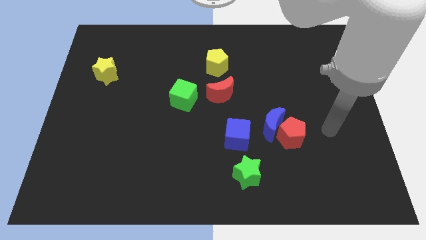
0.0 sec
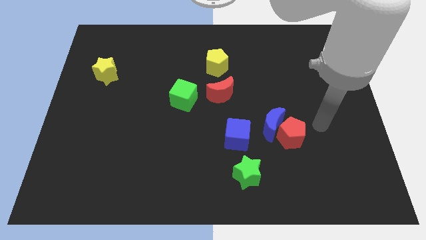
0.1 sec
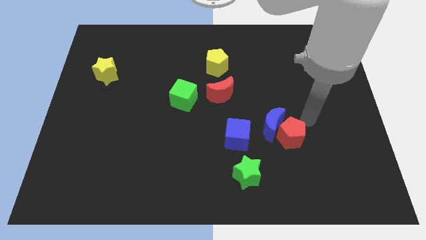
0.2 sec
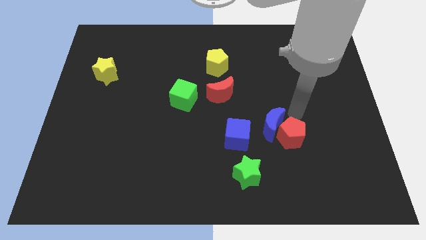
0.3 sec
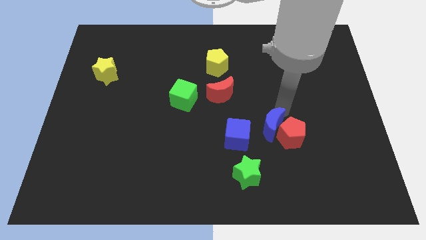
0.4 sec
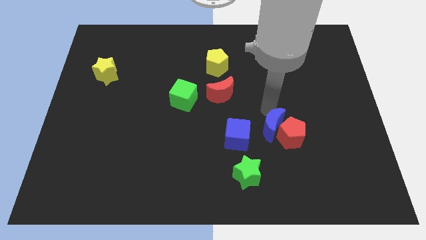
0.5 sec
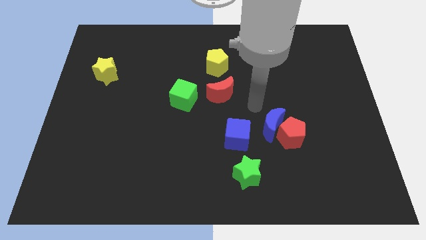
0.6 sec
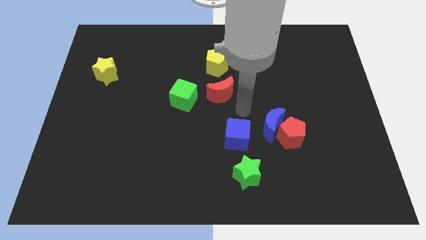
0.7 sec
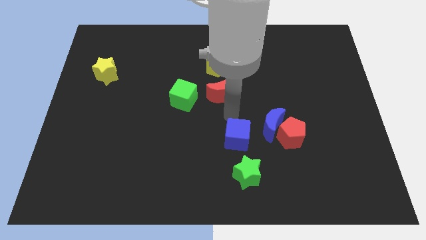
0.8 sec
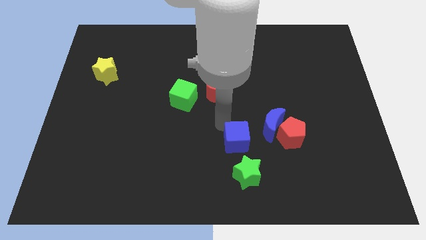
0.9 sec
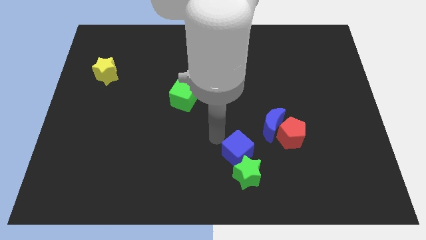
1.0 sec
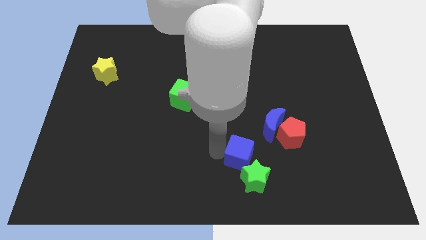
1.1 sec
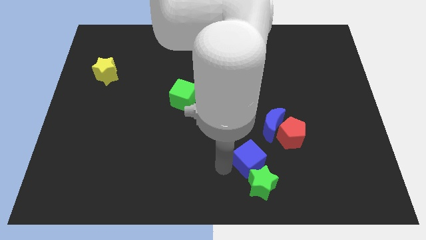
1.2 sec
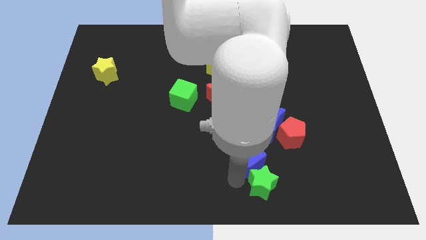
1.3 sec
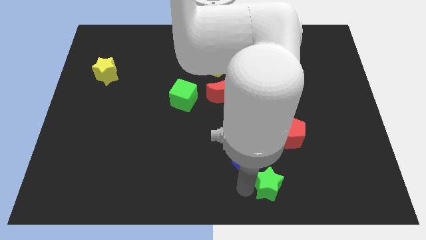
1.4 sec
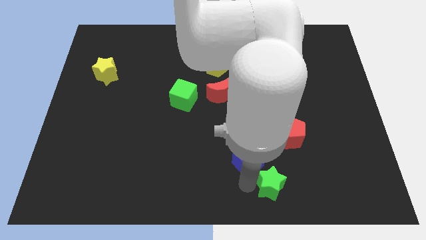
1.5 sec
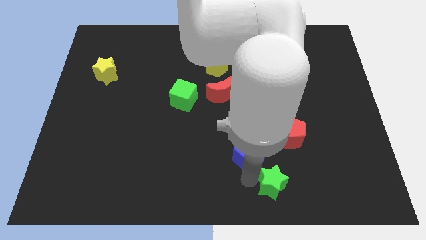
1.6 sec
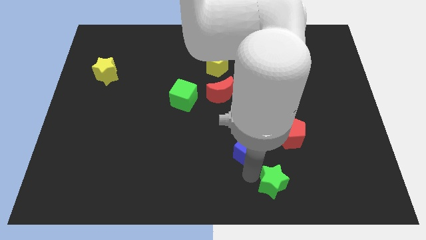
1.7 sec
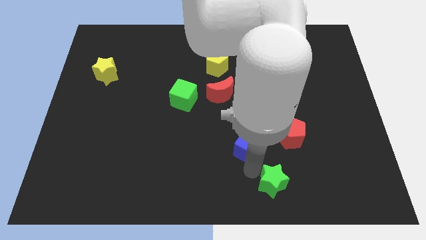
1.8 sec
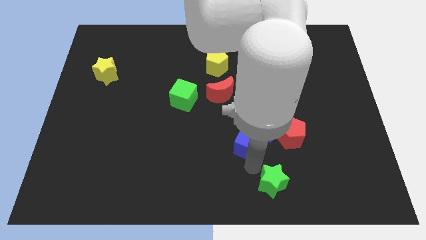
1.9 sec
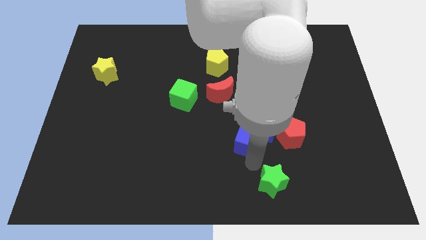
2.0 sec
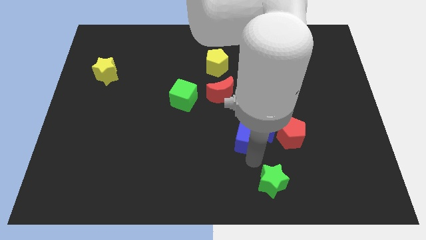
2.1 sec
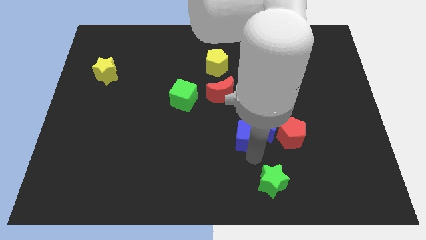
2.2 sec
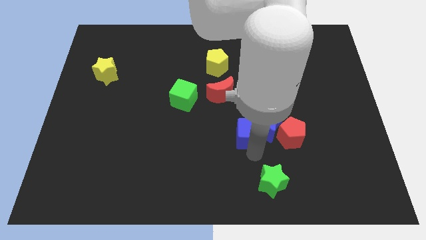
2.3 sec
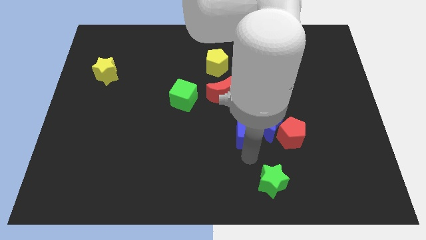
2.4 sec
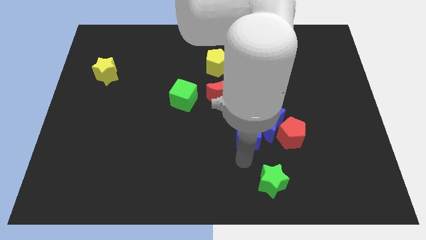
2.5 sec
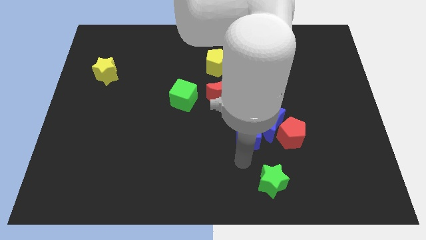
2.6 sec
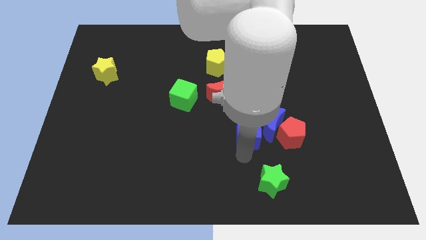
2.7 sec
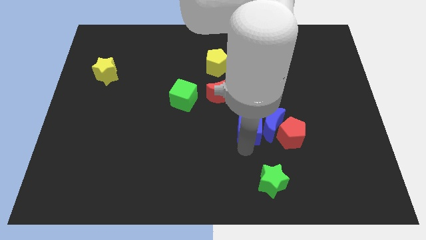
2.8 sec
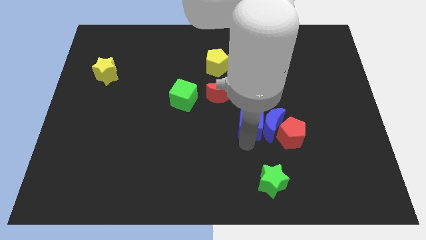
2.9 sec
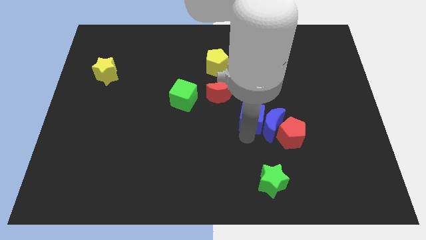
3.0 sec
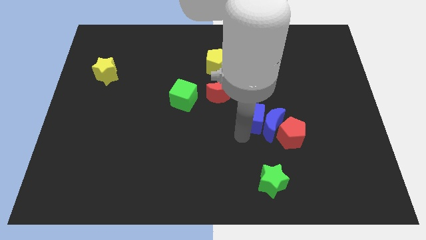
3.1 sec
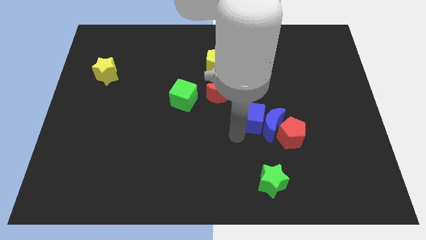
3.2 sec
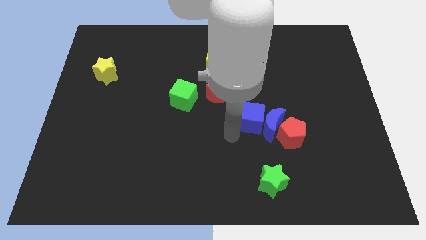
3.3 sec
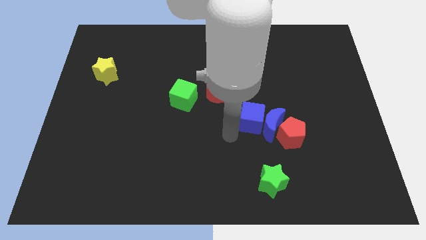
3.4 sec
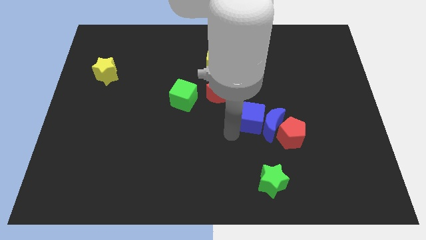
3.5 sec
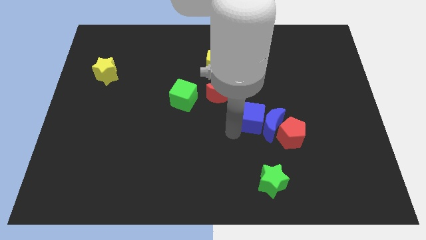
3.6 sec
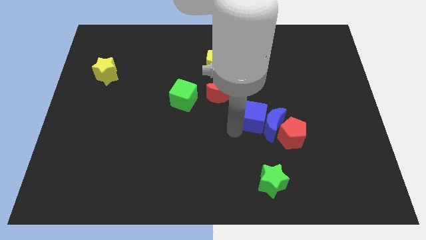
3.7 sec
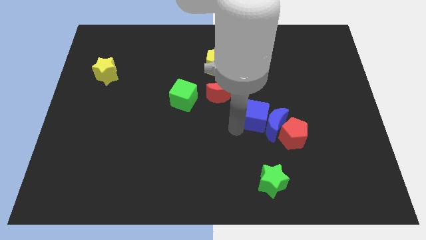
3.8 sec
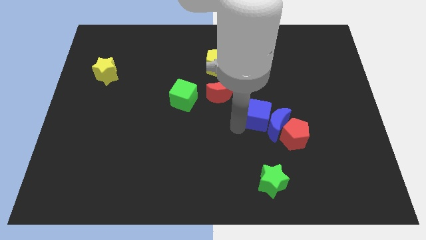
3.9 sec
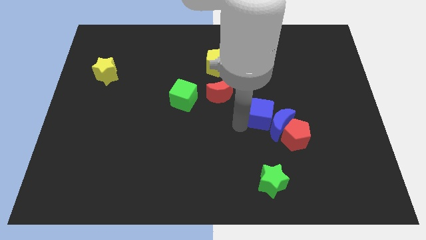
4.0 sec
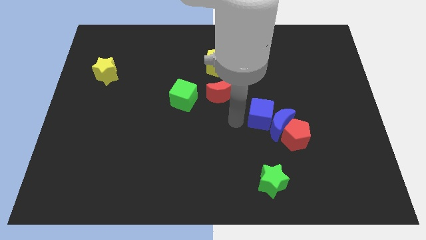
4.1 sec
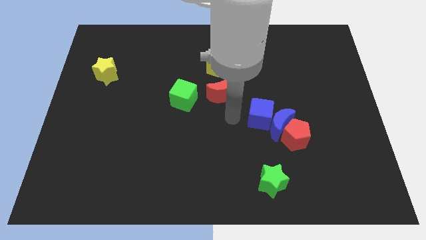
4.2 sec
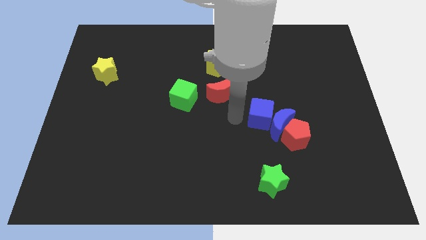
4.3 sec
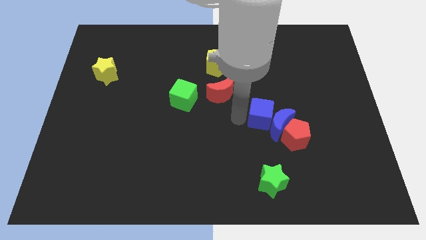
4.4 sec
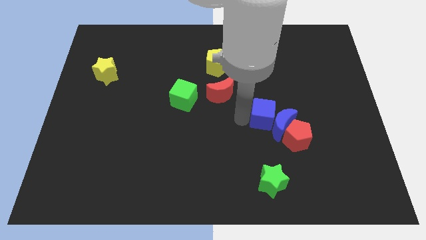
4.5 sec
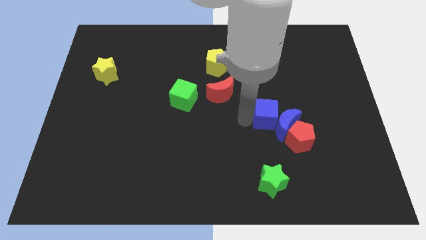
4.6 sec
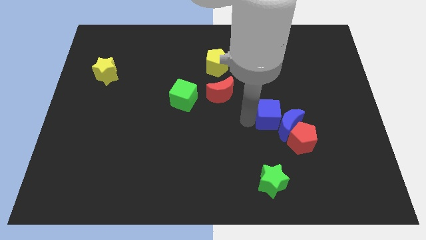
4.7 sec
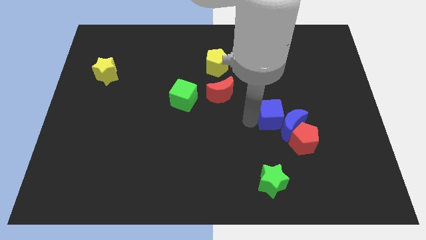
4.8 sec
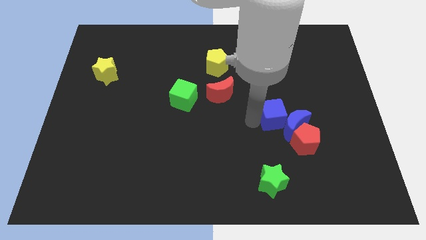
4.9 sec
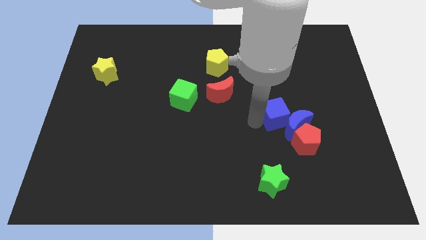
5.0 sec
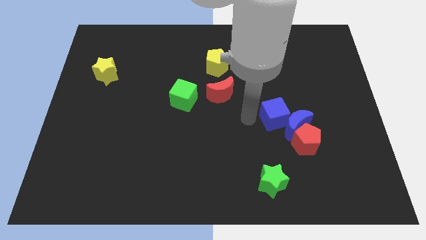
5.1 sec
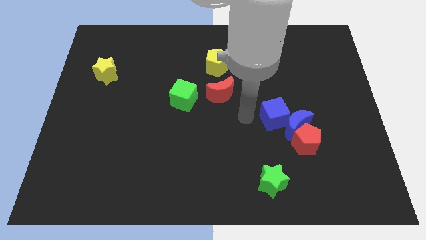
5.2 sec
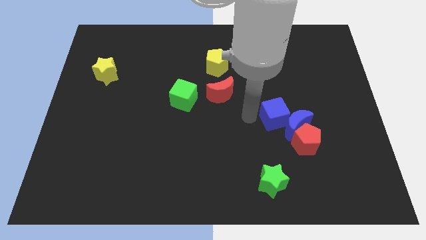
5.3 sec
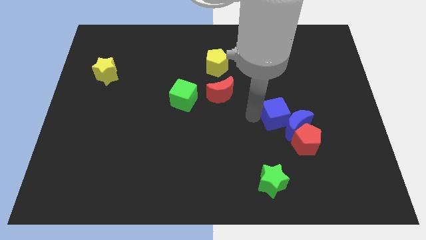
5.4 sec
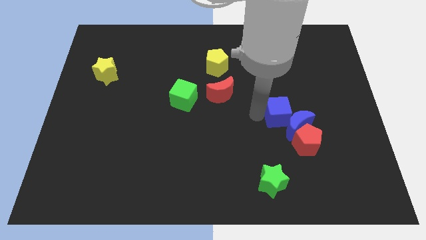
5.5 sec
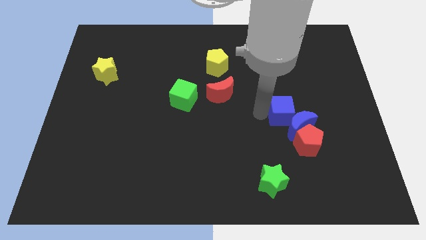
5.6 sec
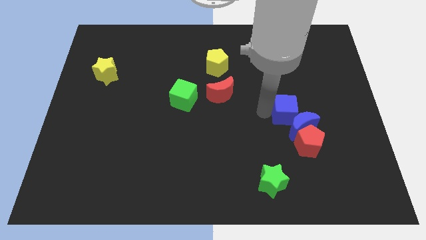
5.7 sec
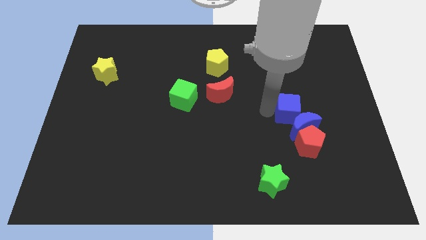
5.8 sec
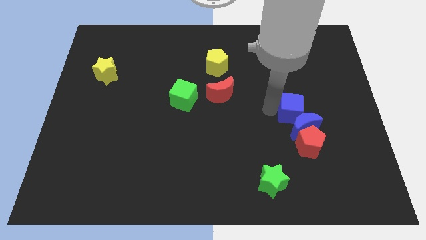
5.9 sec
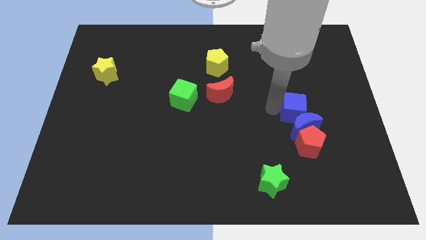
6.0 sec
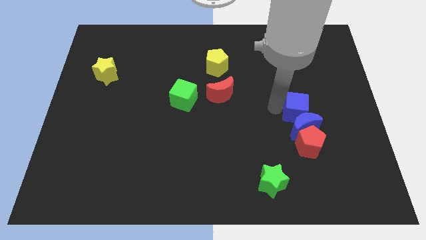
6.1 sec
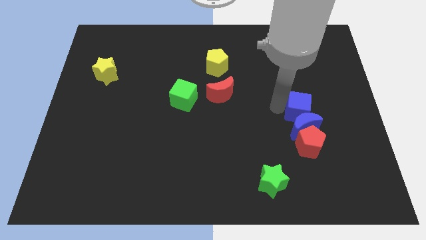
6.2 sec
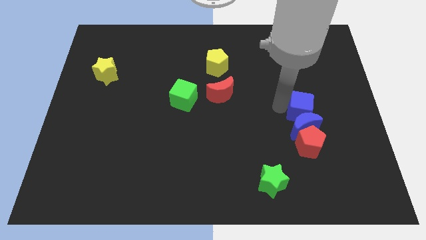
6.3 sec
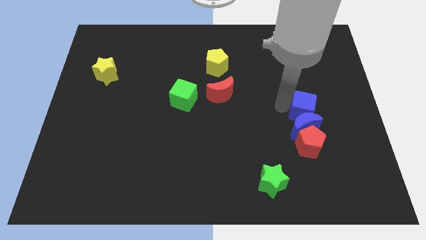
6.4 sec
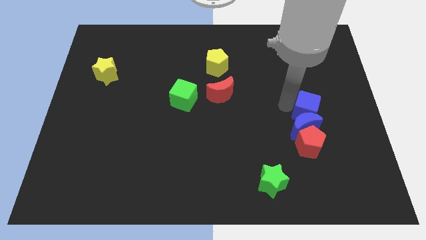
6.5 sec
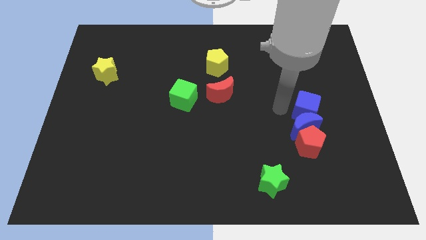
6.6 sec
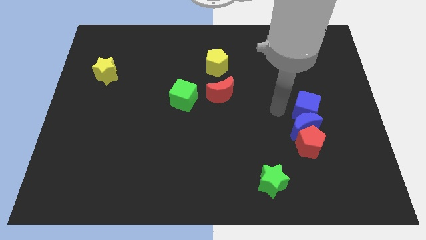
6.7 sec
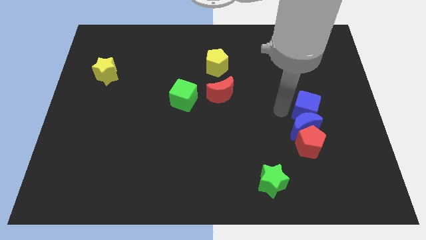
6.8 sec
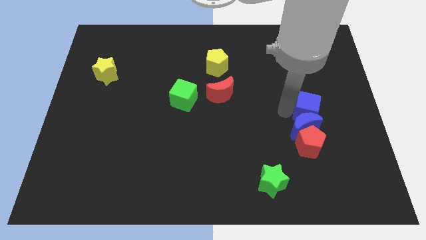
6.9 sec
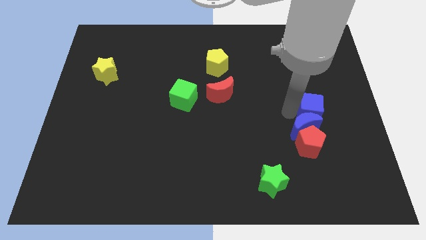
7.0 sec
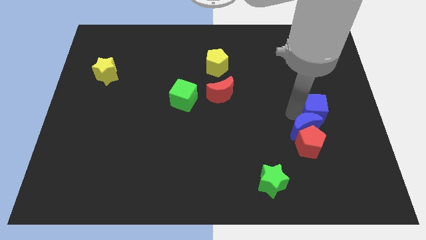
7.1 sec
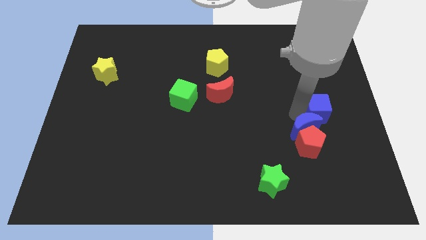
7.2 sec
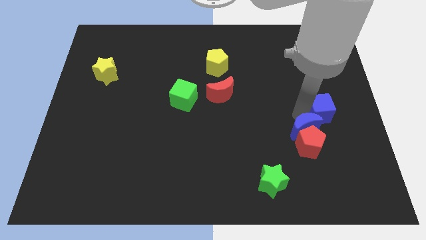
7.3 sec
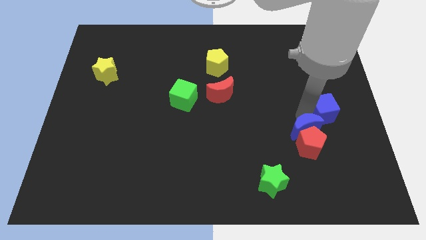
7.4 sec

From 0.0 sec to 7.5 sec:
slide the blue cube to the center right
